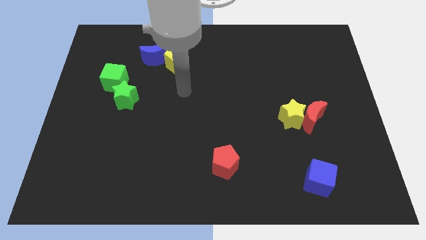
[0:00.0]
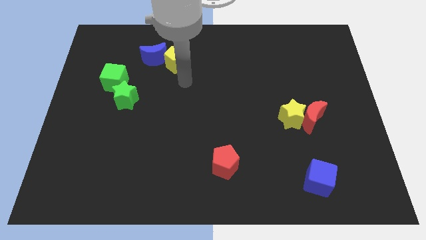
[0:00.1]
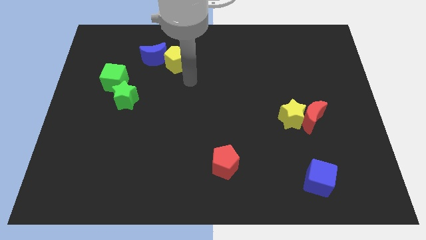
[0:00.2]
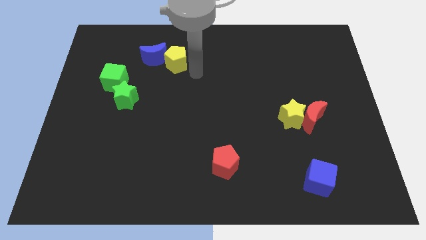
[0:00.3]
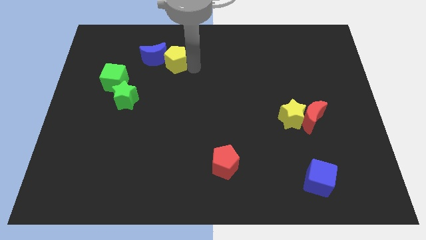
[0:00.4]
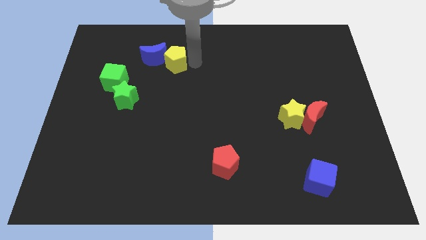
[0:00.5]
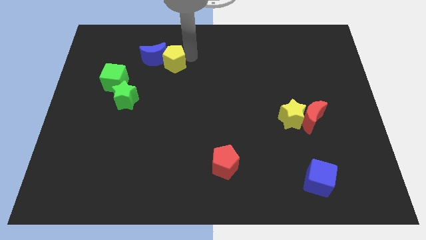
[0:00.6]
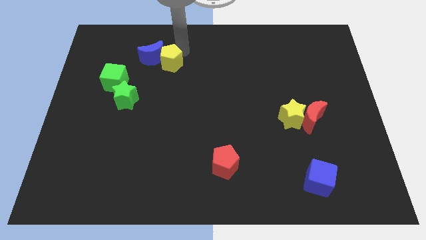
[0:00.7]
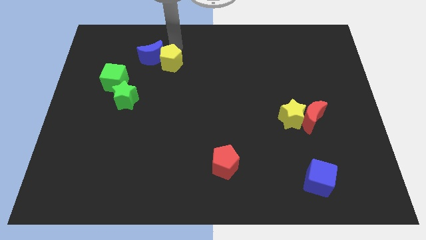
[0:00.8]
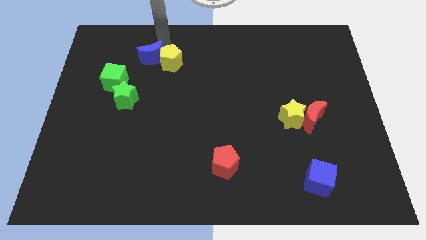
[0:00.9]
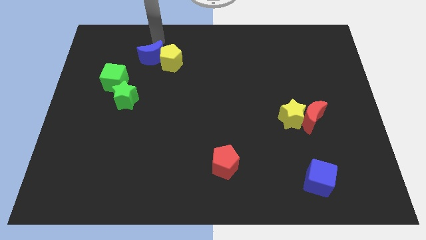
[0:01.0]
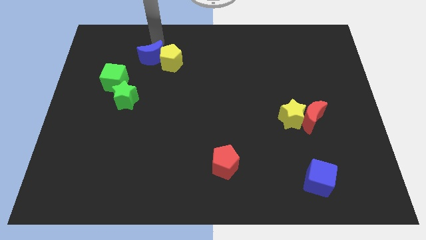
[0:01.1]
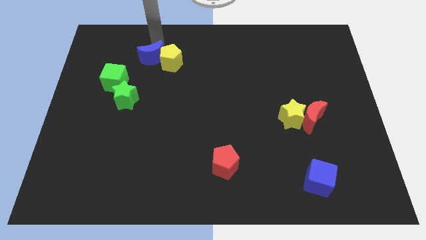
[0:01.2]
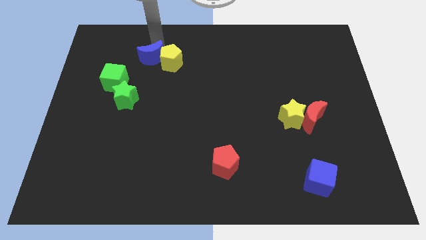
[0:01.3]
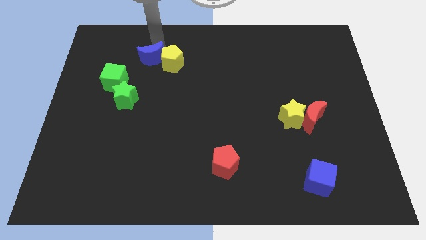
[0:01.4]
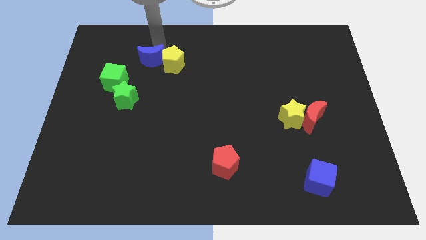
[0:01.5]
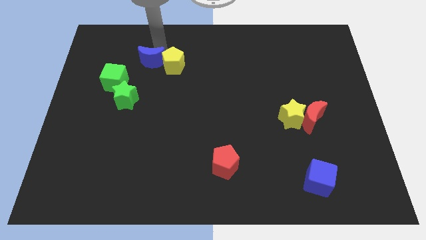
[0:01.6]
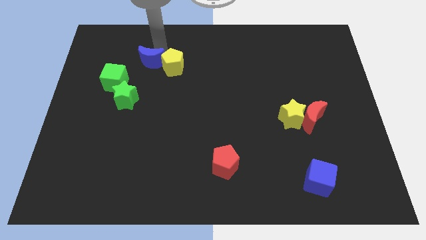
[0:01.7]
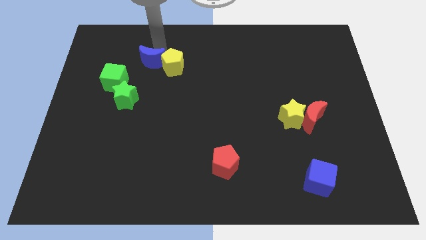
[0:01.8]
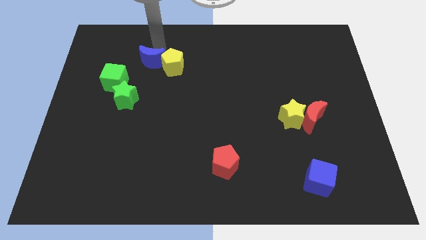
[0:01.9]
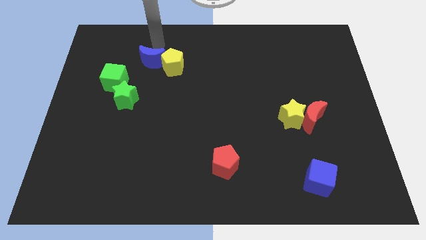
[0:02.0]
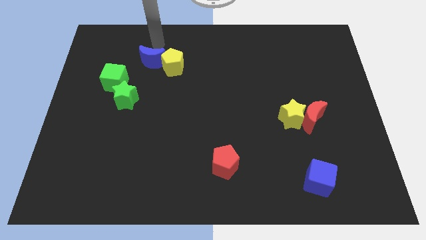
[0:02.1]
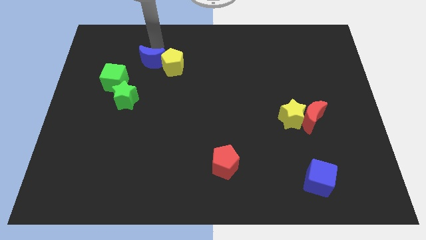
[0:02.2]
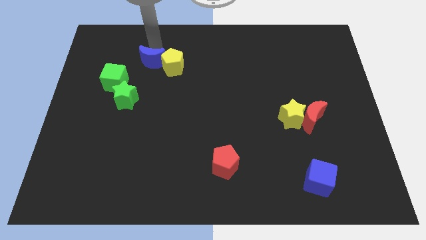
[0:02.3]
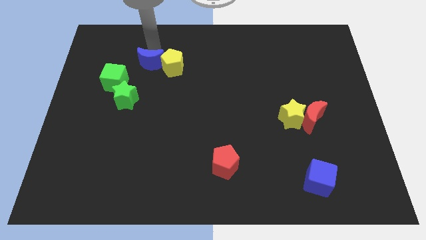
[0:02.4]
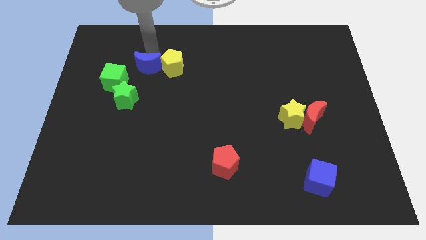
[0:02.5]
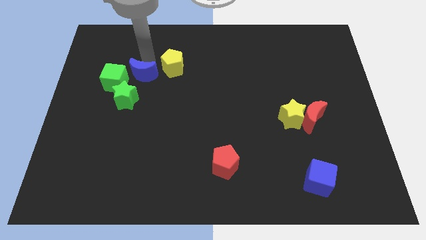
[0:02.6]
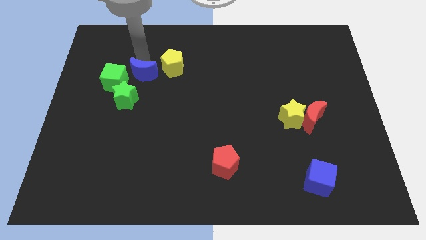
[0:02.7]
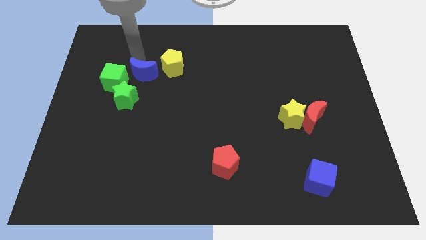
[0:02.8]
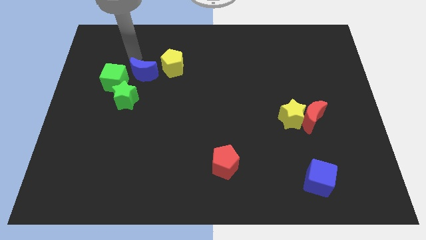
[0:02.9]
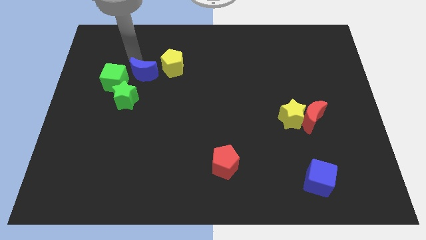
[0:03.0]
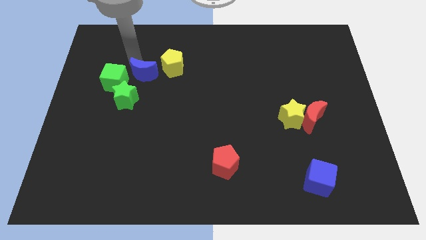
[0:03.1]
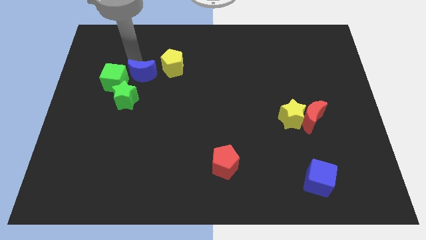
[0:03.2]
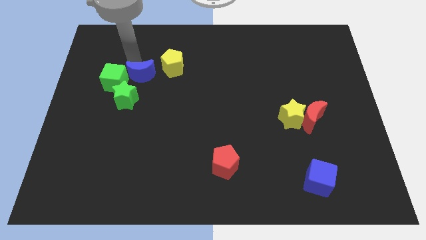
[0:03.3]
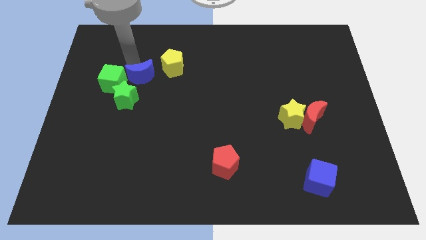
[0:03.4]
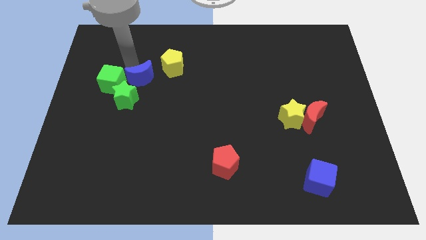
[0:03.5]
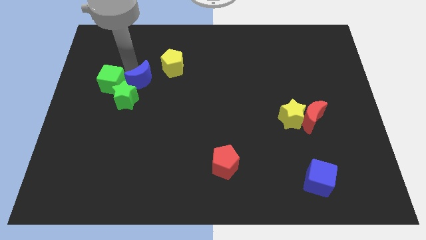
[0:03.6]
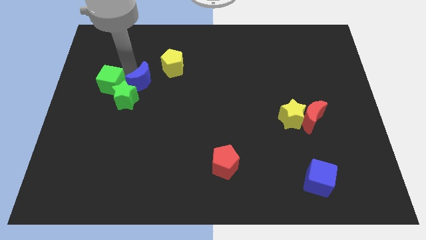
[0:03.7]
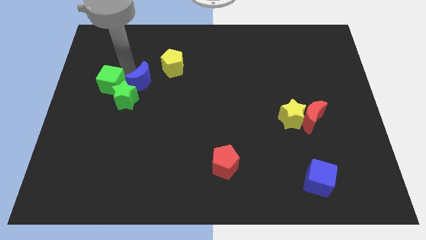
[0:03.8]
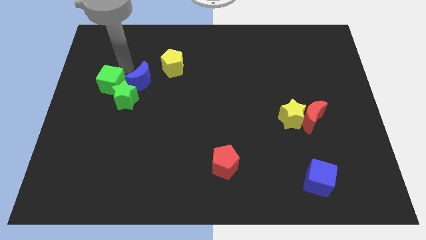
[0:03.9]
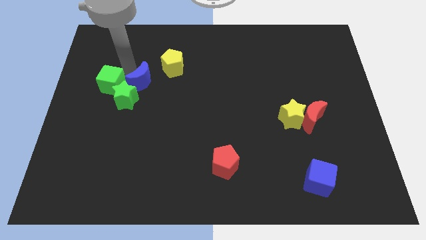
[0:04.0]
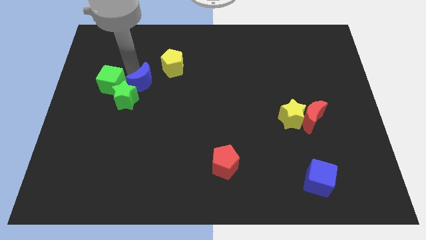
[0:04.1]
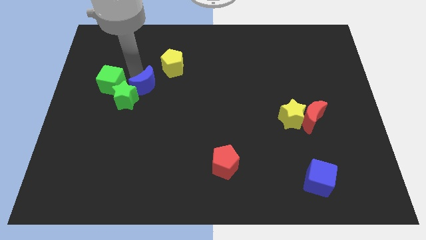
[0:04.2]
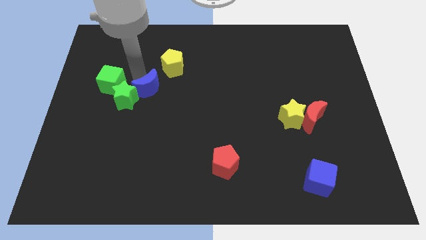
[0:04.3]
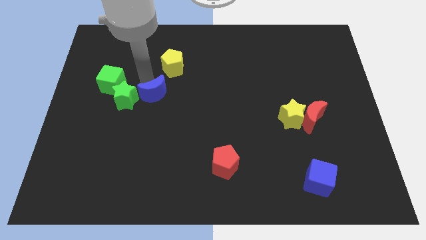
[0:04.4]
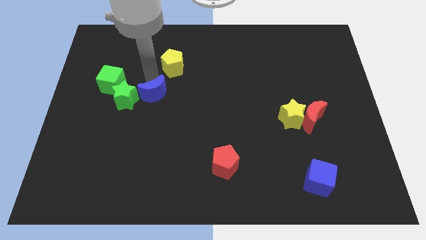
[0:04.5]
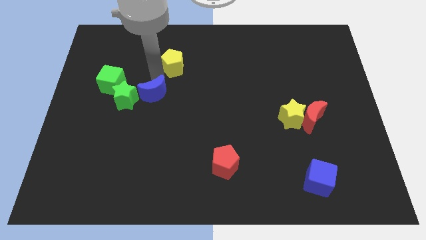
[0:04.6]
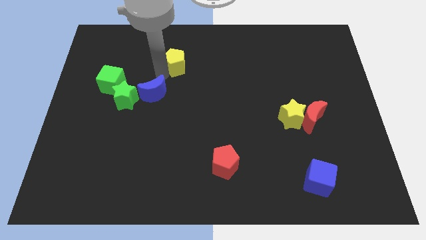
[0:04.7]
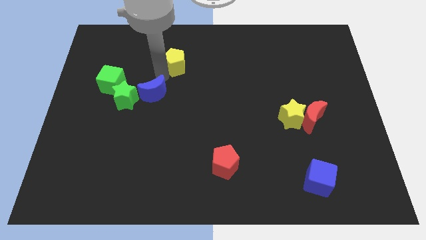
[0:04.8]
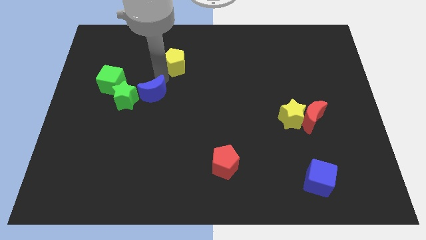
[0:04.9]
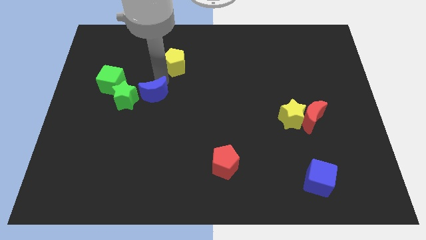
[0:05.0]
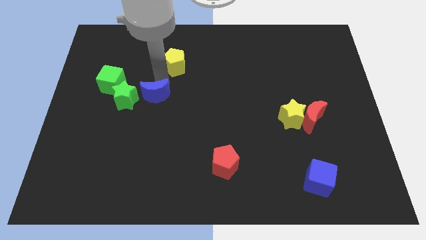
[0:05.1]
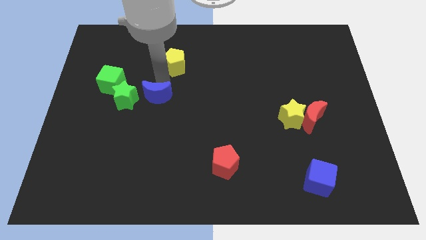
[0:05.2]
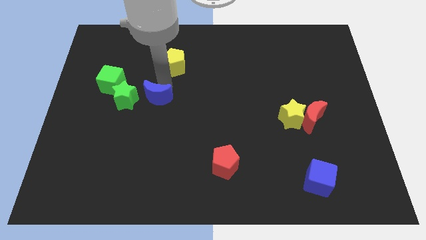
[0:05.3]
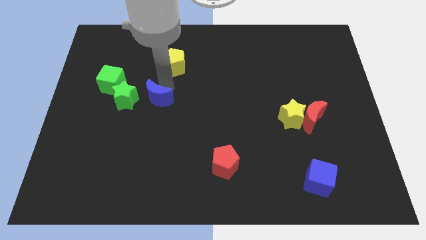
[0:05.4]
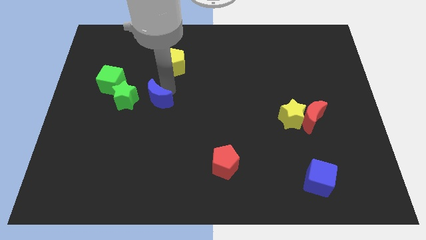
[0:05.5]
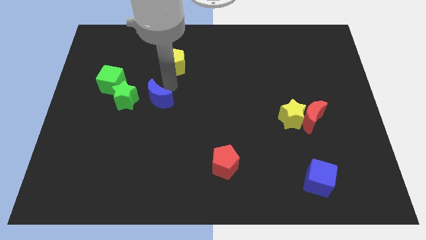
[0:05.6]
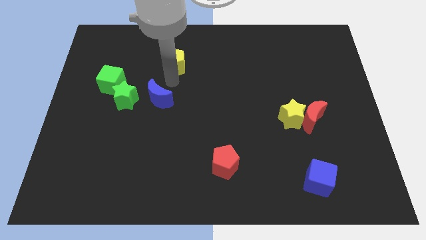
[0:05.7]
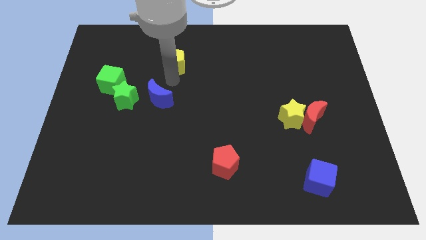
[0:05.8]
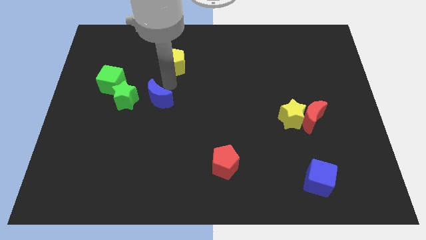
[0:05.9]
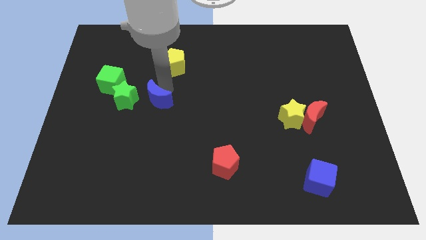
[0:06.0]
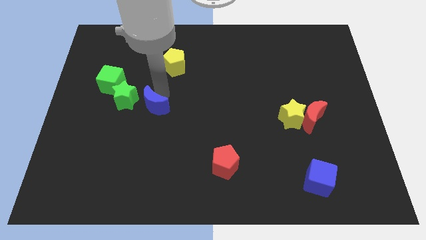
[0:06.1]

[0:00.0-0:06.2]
put the blue moon diagonally down and to the right of the green star

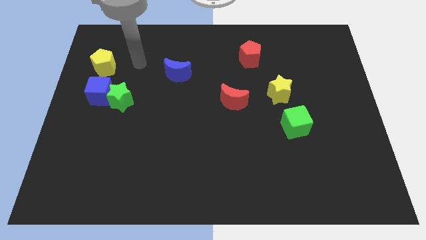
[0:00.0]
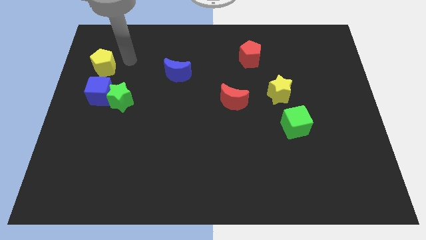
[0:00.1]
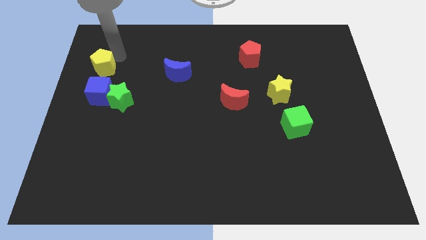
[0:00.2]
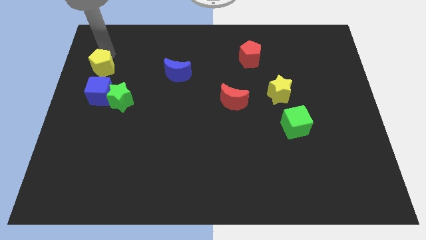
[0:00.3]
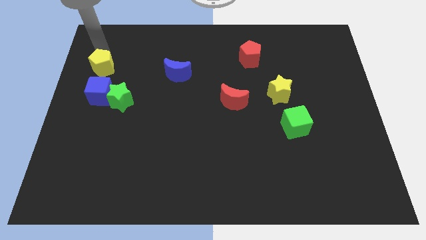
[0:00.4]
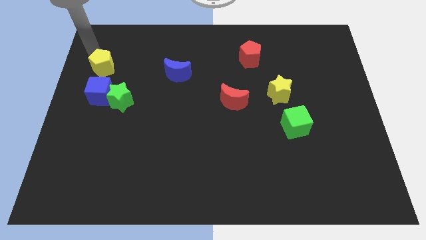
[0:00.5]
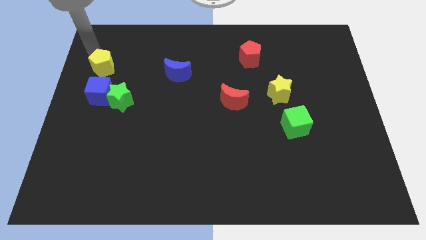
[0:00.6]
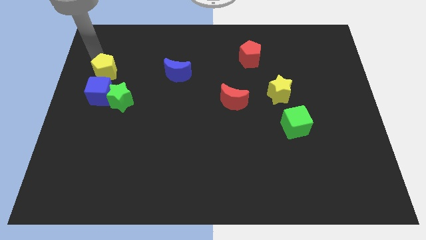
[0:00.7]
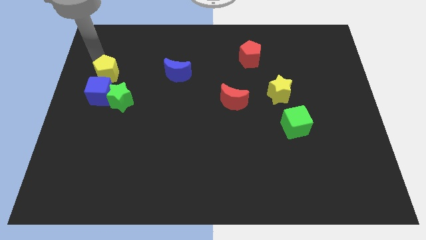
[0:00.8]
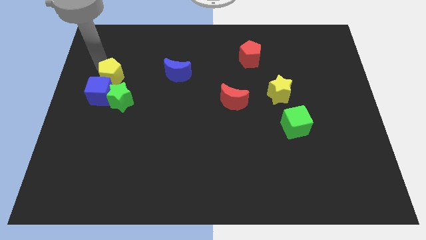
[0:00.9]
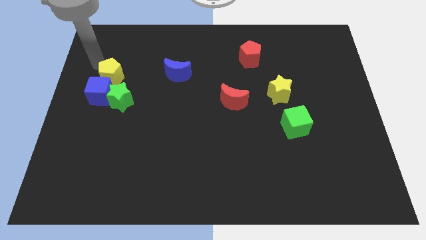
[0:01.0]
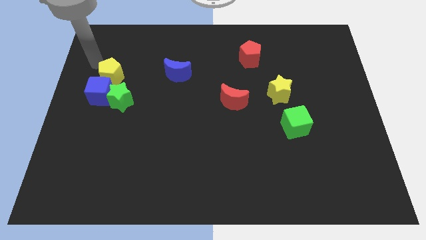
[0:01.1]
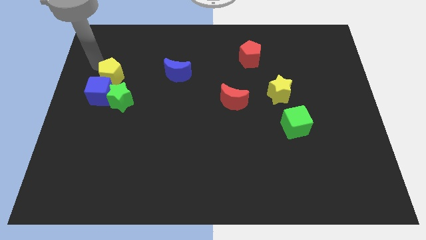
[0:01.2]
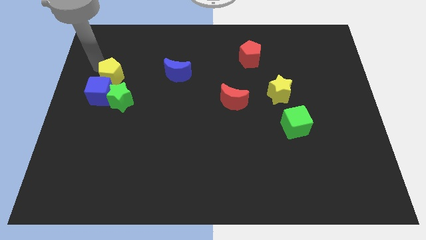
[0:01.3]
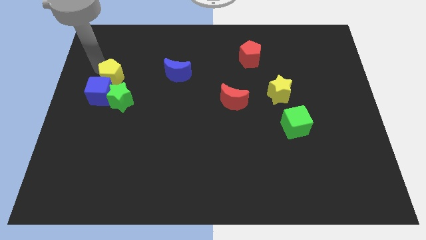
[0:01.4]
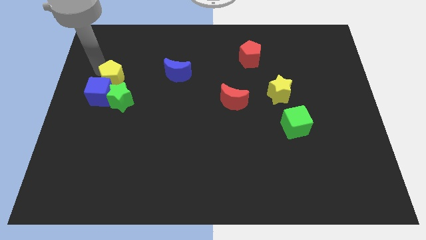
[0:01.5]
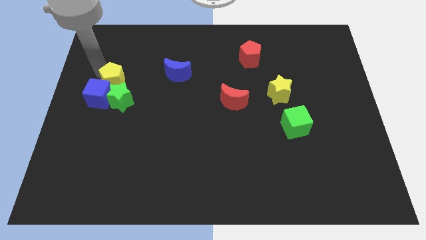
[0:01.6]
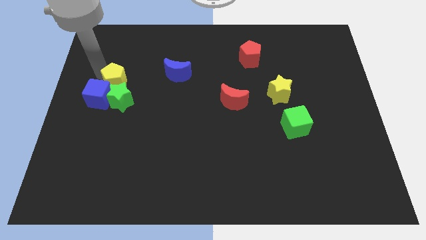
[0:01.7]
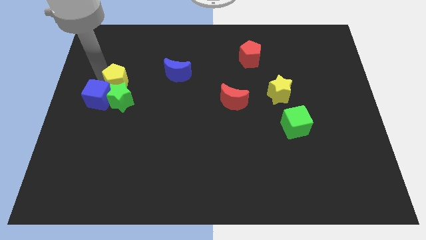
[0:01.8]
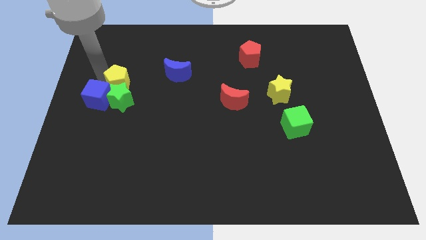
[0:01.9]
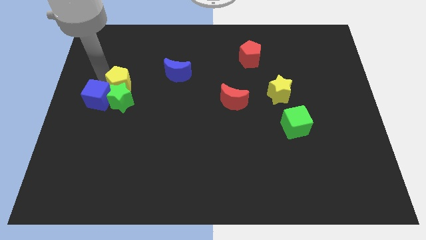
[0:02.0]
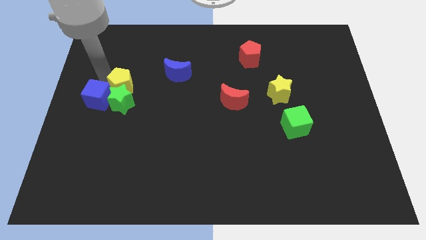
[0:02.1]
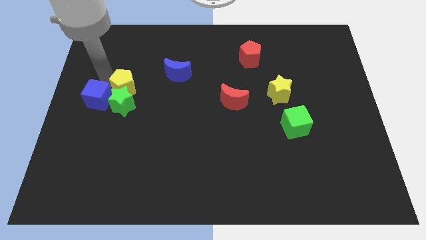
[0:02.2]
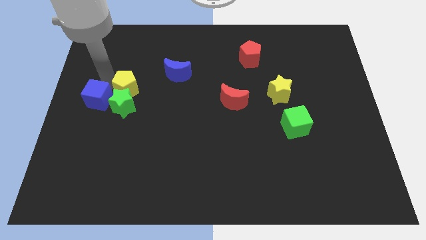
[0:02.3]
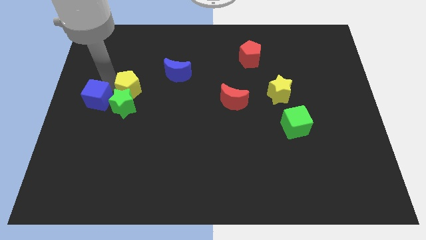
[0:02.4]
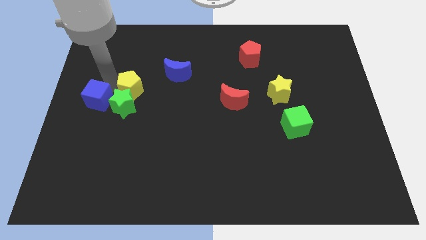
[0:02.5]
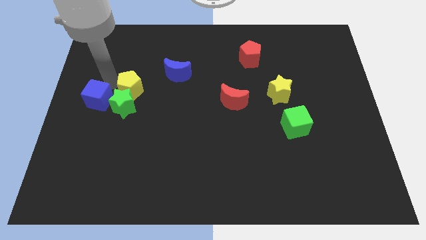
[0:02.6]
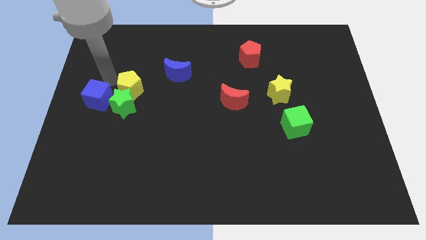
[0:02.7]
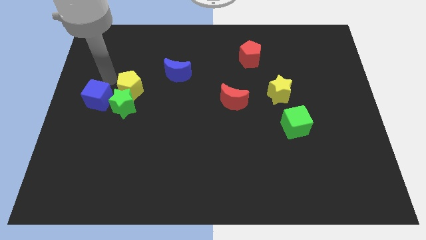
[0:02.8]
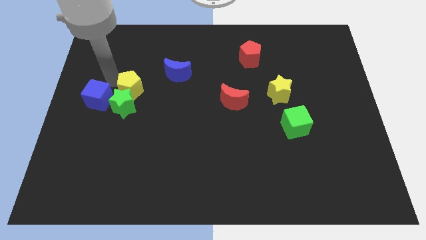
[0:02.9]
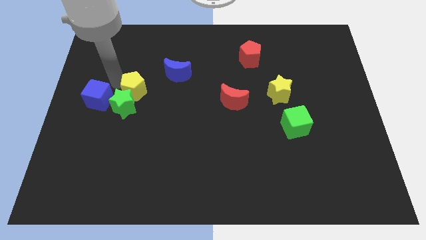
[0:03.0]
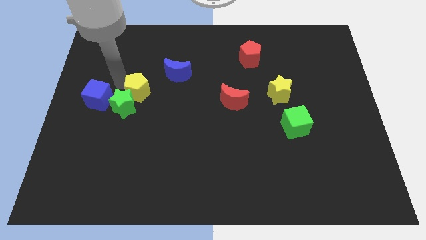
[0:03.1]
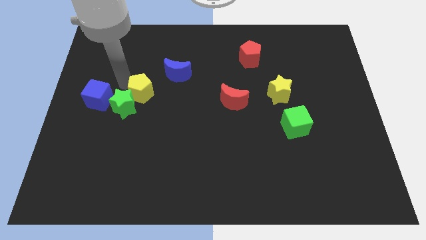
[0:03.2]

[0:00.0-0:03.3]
slide the yellow pentagon just right of the green star
